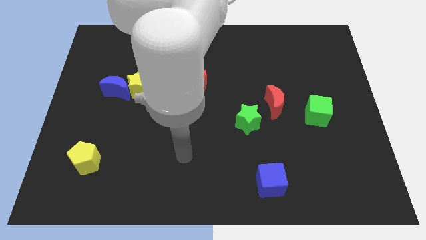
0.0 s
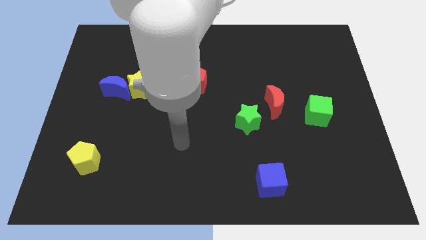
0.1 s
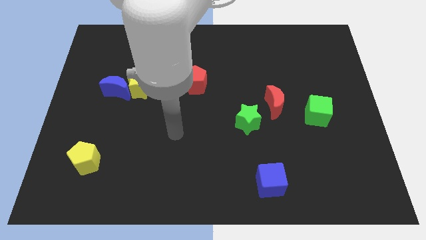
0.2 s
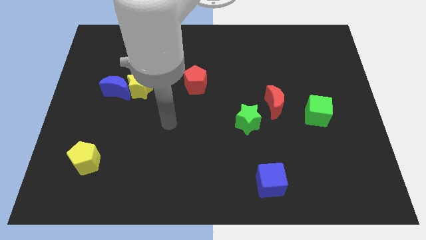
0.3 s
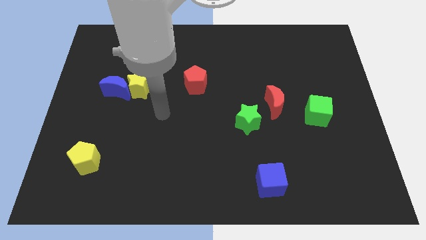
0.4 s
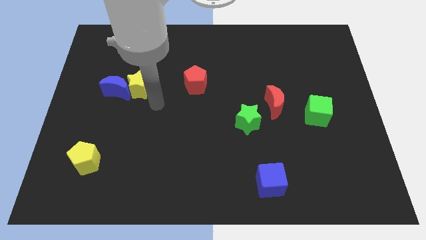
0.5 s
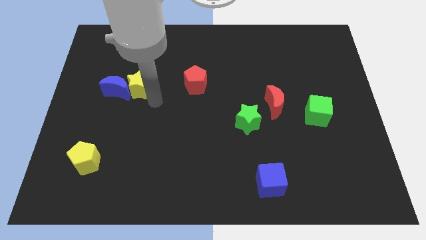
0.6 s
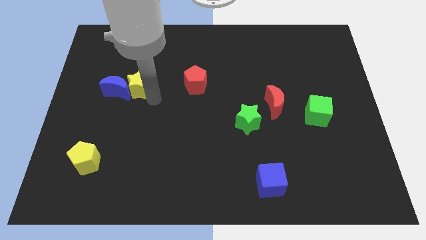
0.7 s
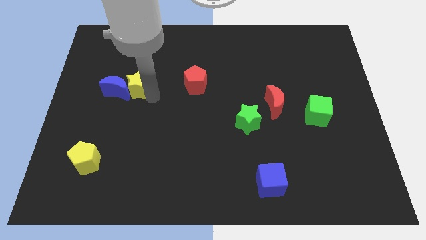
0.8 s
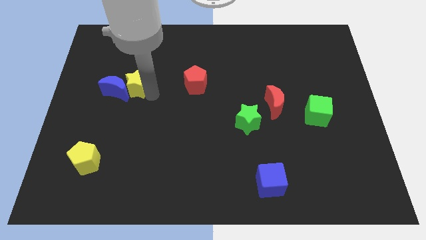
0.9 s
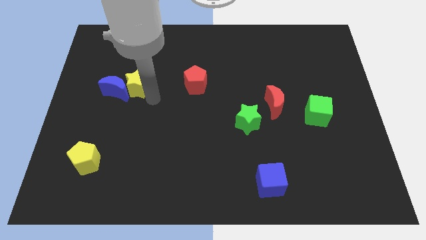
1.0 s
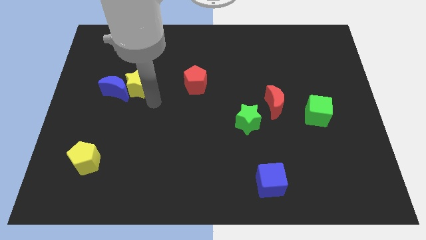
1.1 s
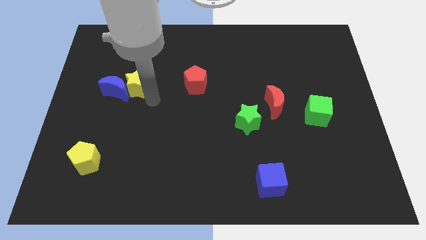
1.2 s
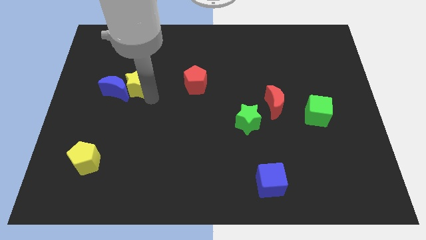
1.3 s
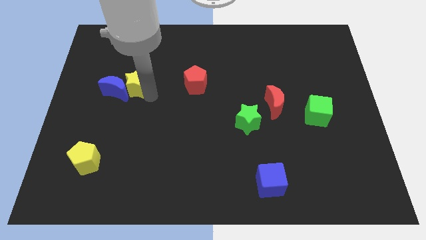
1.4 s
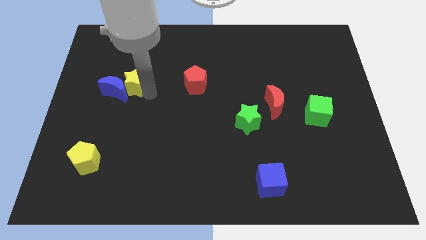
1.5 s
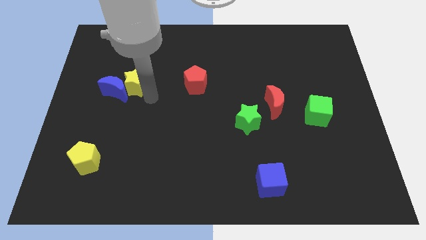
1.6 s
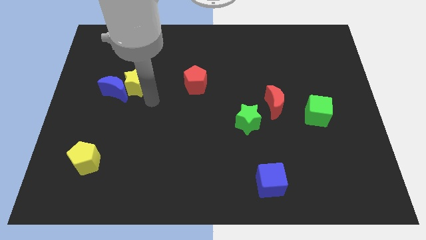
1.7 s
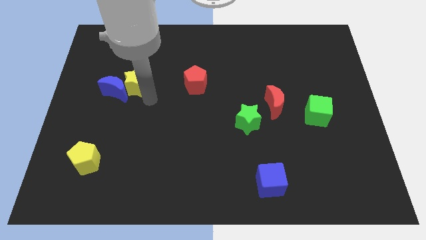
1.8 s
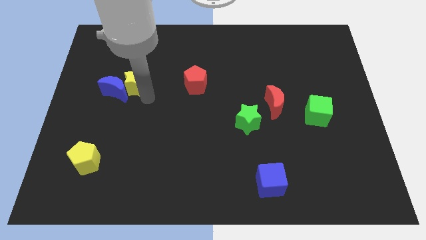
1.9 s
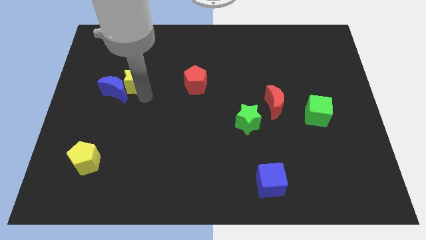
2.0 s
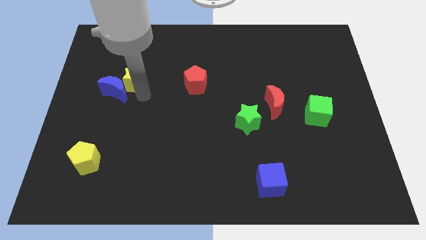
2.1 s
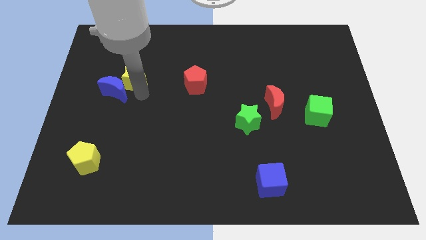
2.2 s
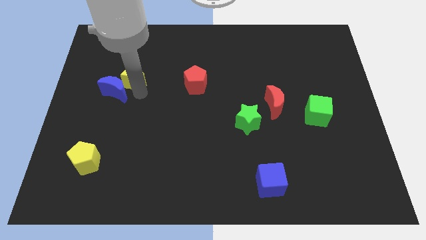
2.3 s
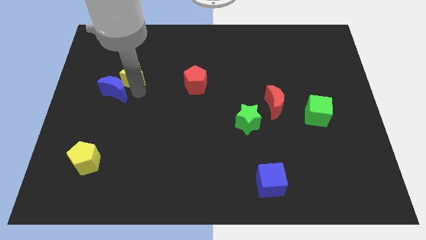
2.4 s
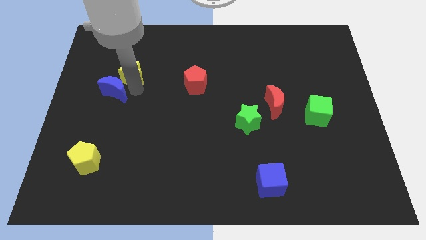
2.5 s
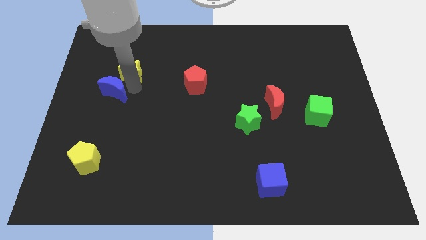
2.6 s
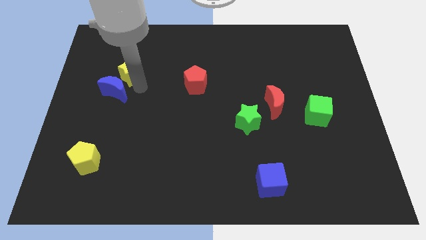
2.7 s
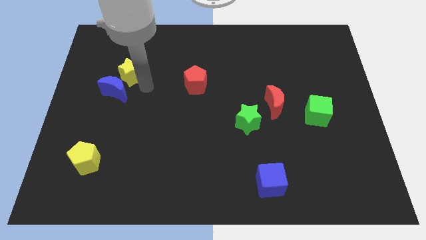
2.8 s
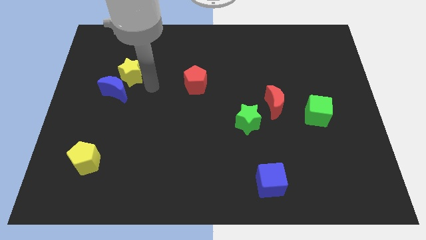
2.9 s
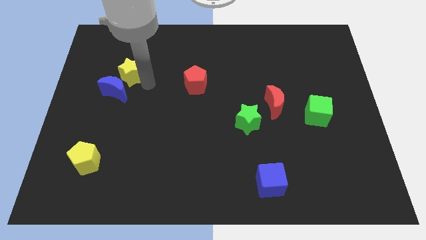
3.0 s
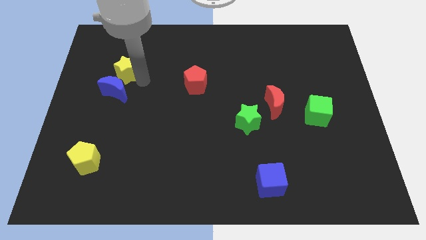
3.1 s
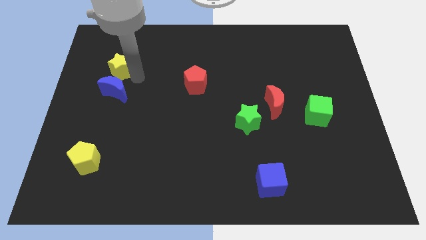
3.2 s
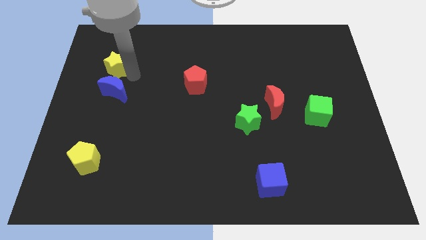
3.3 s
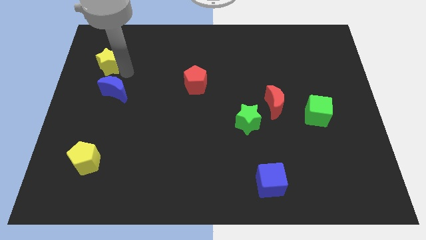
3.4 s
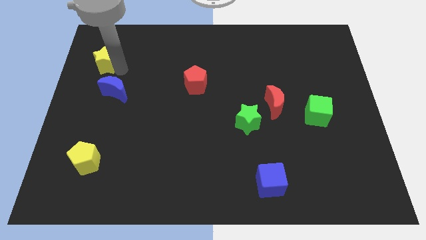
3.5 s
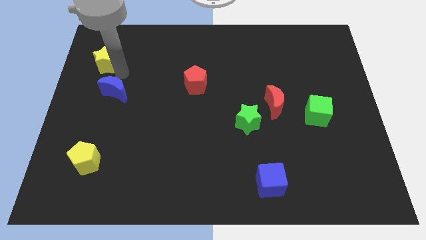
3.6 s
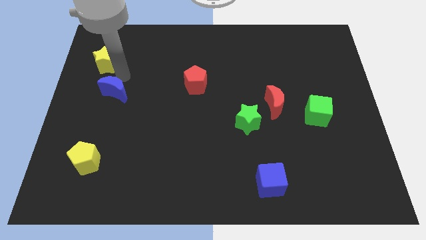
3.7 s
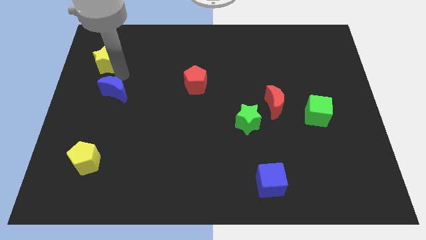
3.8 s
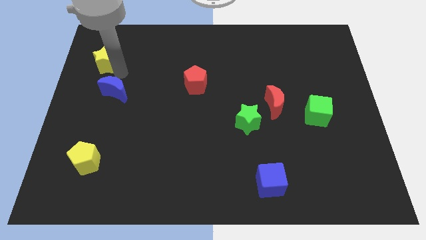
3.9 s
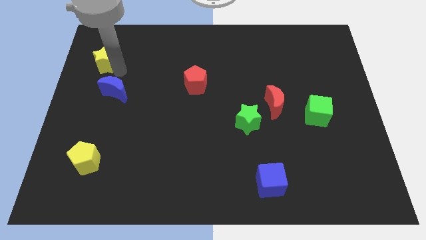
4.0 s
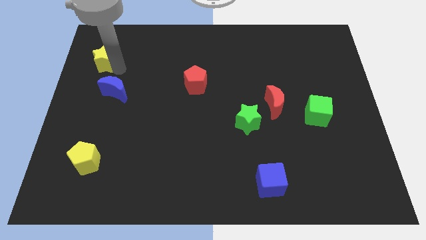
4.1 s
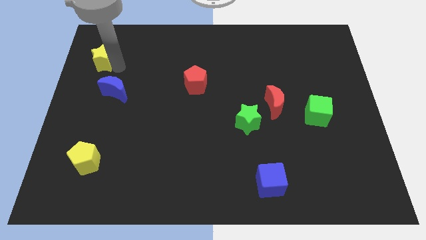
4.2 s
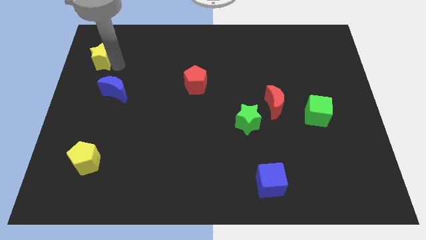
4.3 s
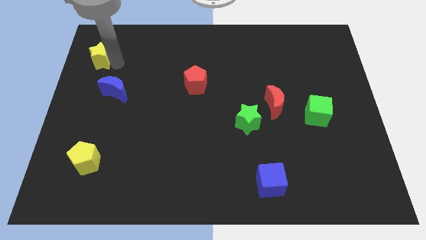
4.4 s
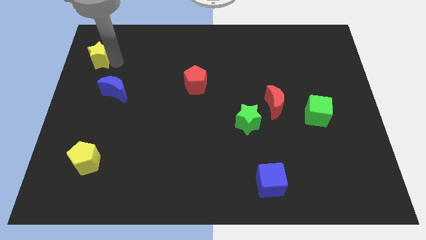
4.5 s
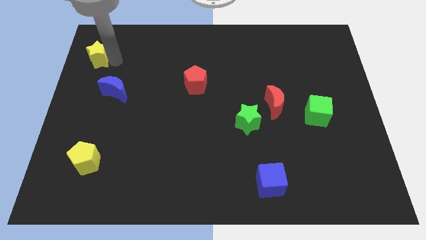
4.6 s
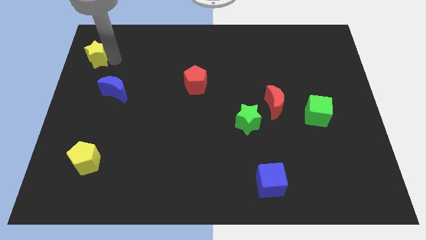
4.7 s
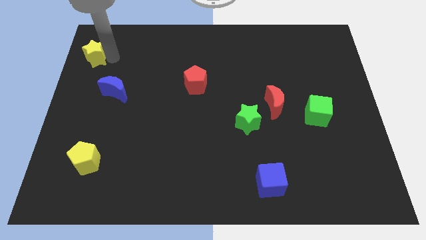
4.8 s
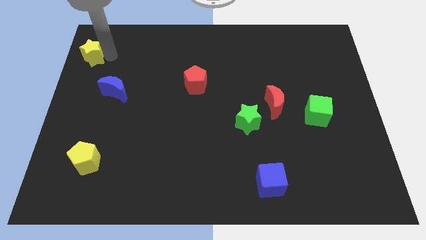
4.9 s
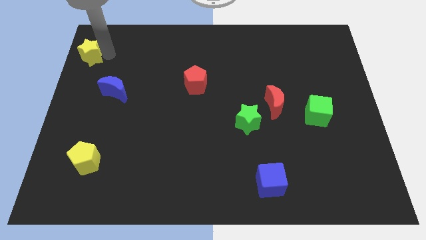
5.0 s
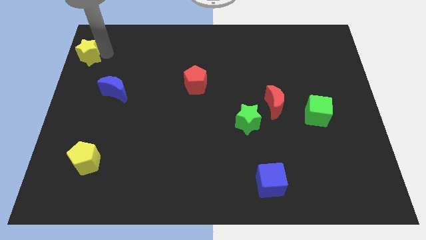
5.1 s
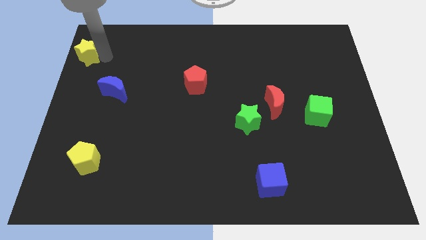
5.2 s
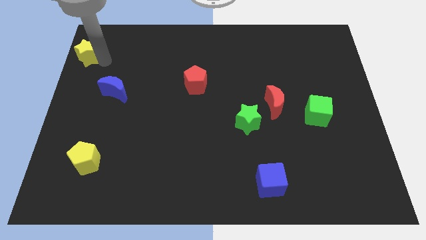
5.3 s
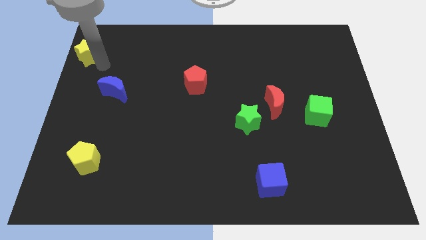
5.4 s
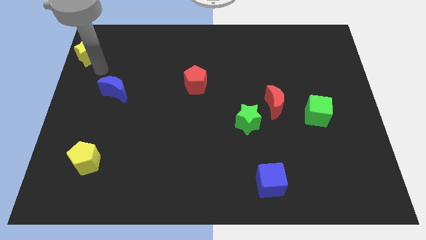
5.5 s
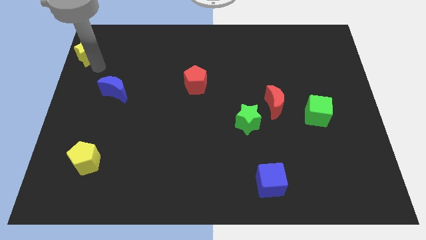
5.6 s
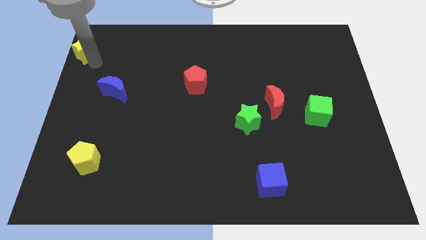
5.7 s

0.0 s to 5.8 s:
move the yellow star to the upper left corner

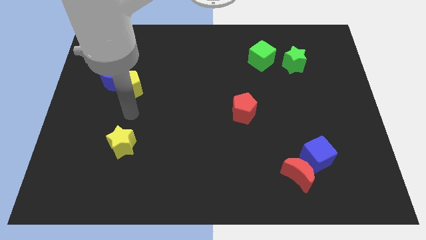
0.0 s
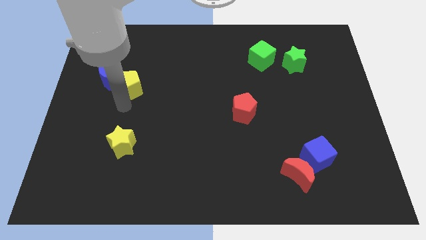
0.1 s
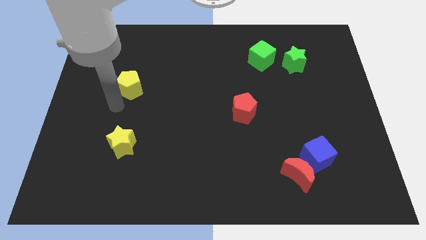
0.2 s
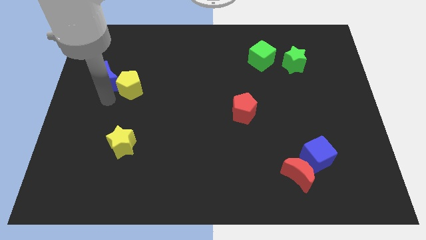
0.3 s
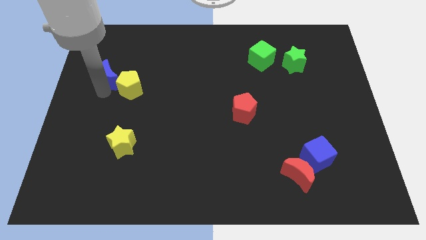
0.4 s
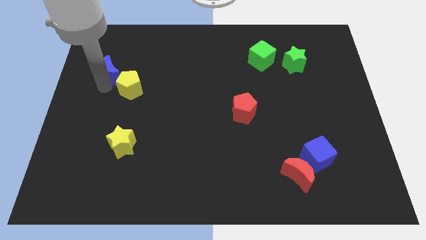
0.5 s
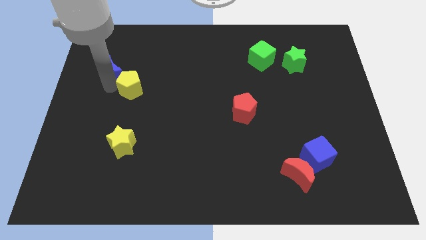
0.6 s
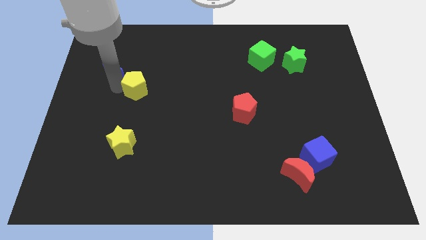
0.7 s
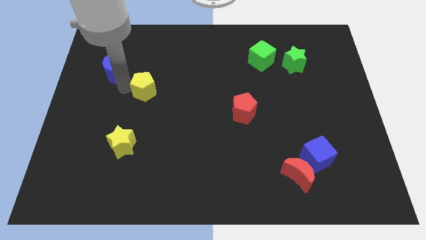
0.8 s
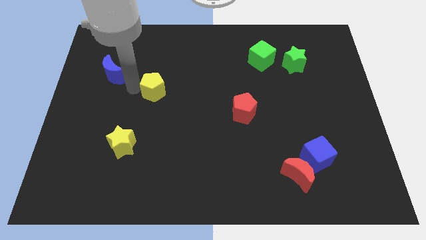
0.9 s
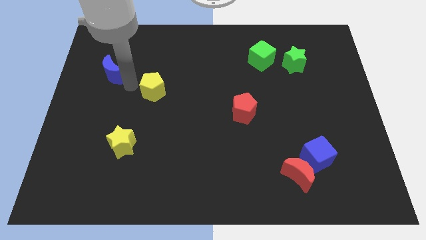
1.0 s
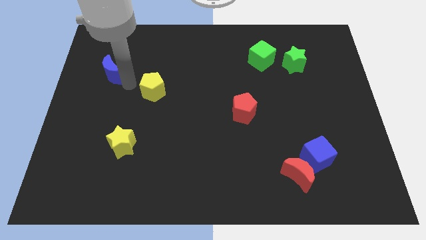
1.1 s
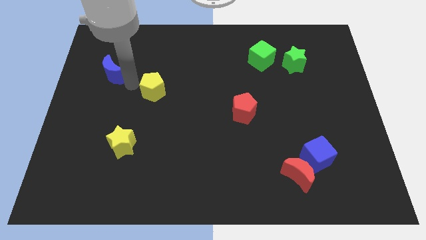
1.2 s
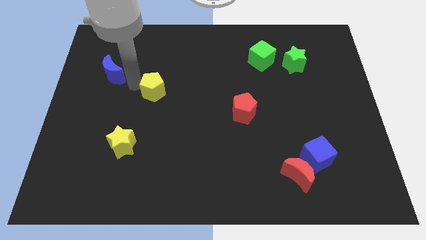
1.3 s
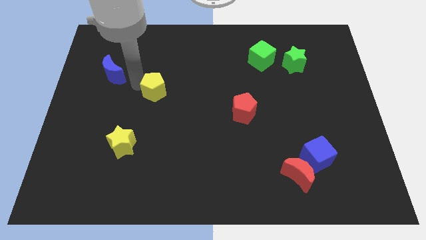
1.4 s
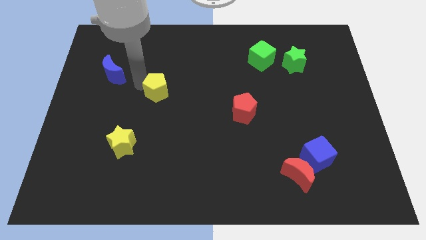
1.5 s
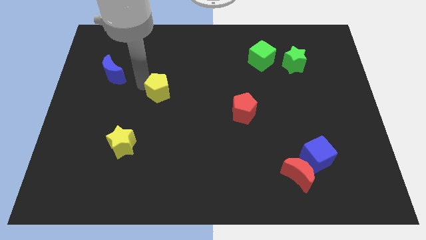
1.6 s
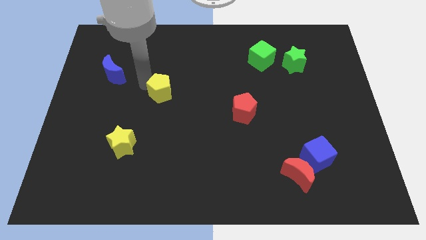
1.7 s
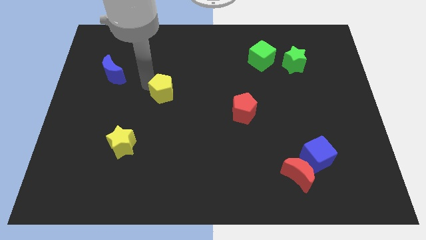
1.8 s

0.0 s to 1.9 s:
push the yellow pentagon to the center of the board
